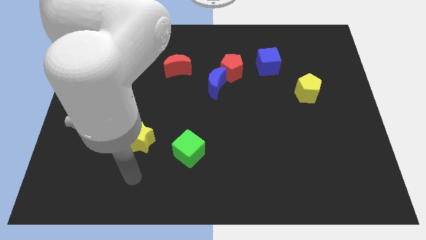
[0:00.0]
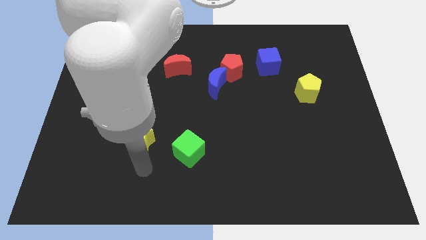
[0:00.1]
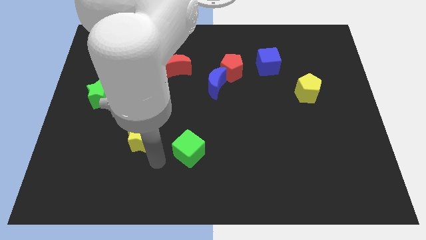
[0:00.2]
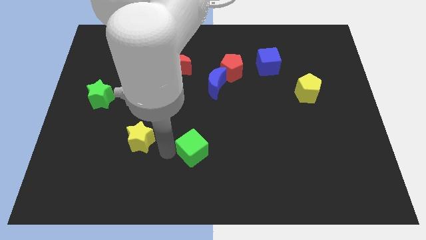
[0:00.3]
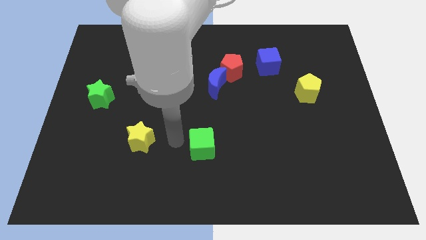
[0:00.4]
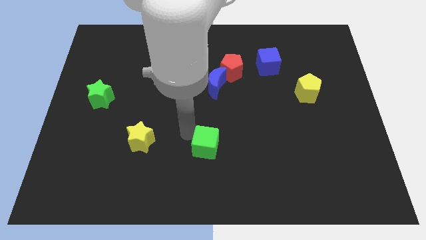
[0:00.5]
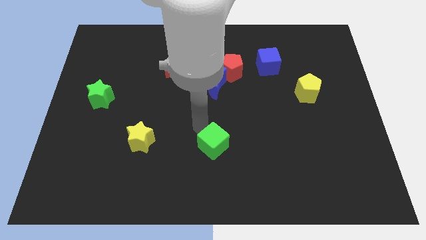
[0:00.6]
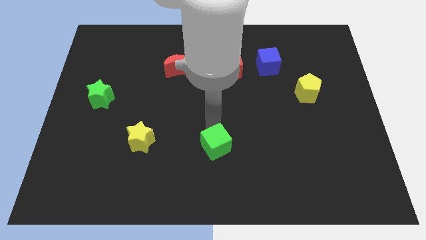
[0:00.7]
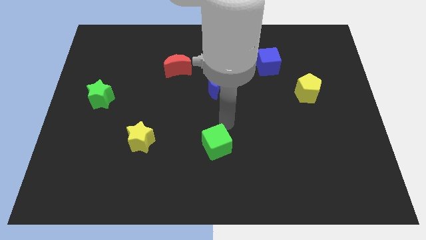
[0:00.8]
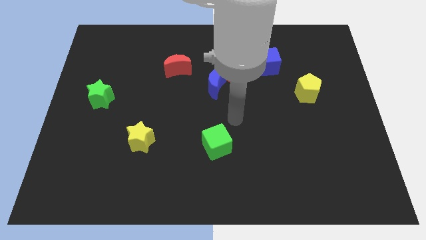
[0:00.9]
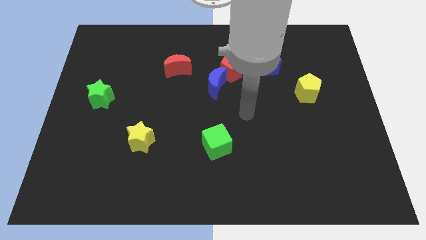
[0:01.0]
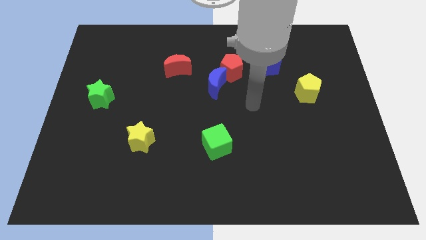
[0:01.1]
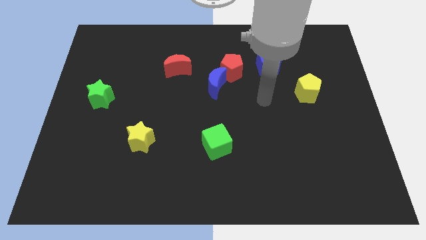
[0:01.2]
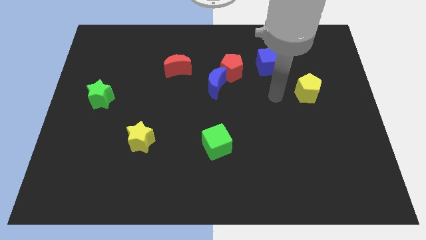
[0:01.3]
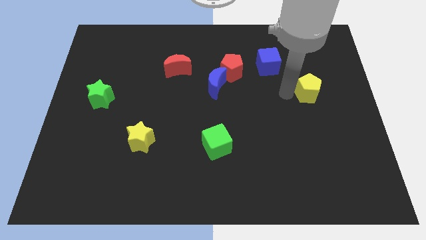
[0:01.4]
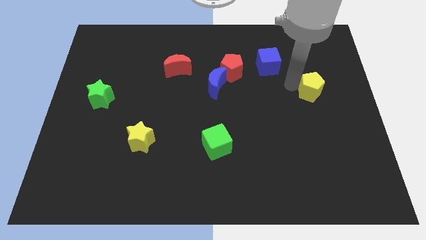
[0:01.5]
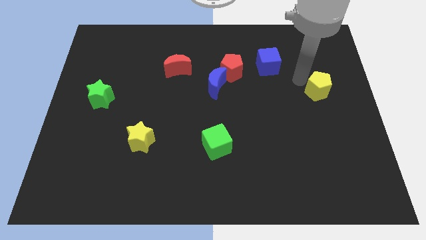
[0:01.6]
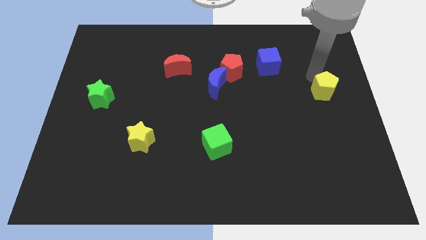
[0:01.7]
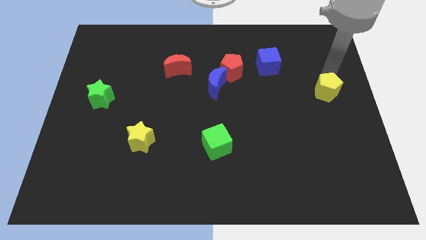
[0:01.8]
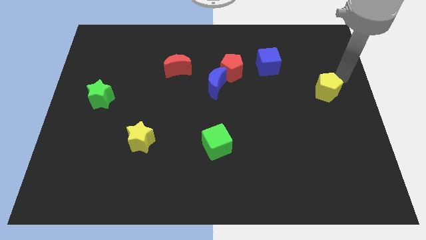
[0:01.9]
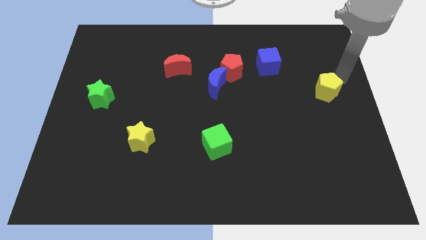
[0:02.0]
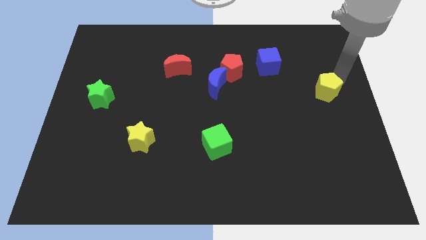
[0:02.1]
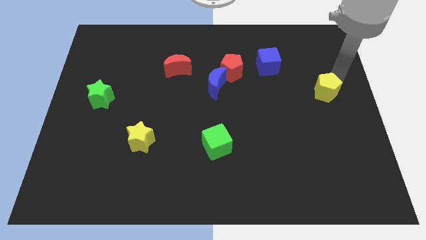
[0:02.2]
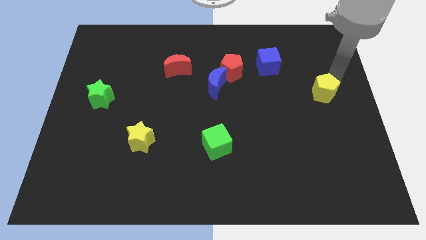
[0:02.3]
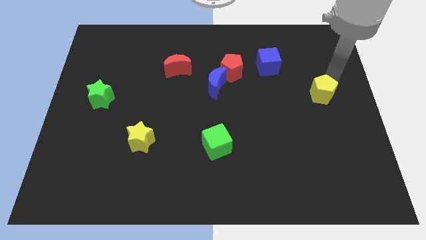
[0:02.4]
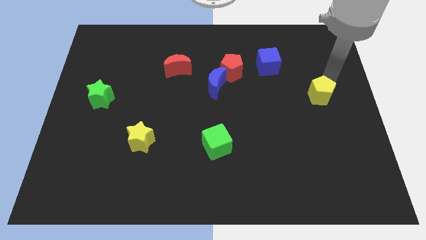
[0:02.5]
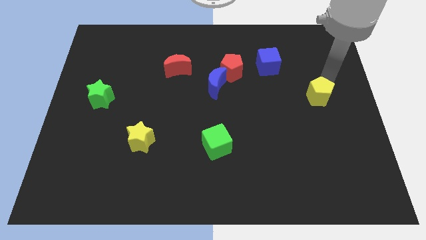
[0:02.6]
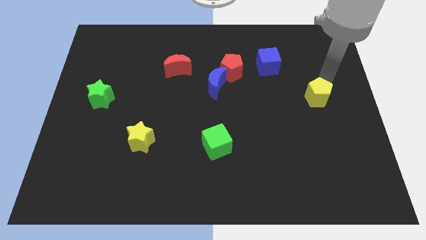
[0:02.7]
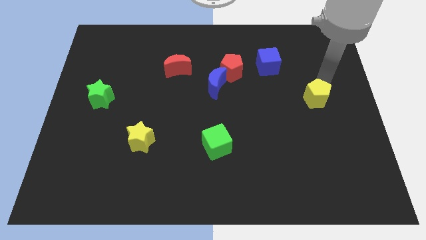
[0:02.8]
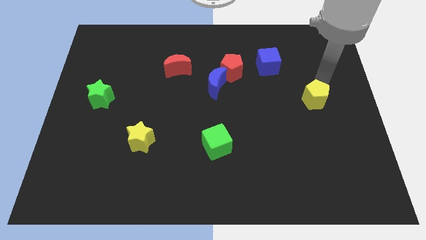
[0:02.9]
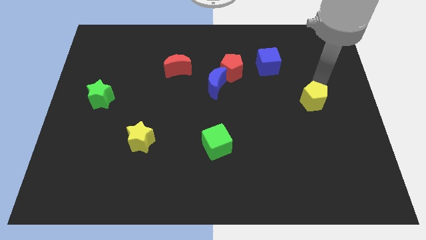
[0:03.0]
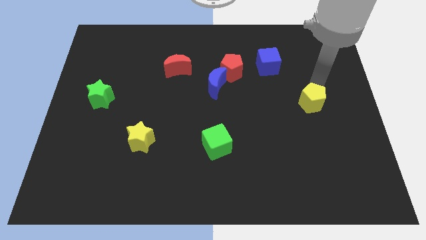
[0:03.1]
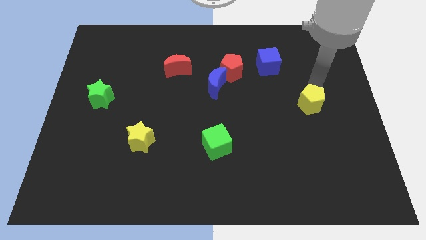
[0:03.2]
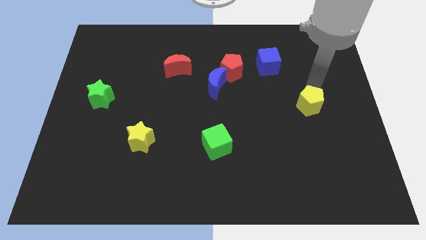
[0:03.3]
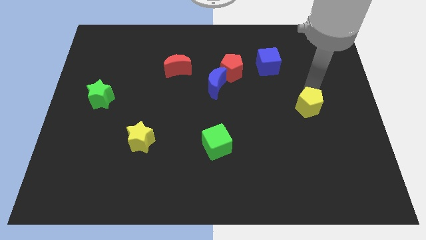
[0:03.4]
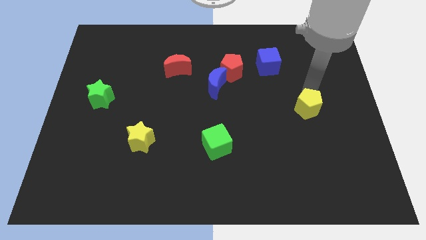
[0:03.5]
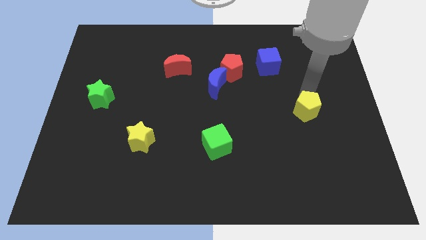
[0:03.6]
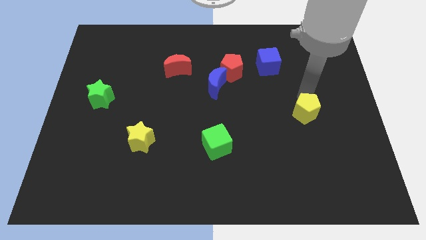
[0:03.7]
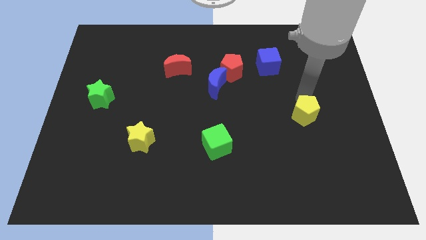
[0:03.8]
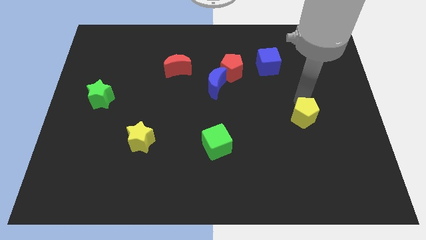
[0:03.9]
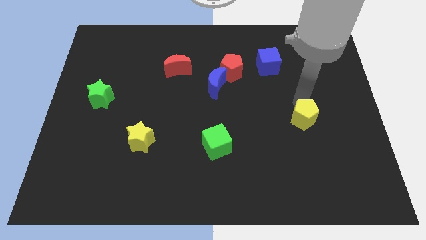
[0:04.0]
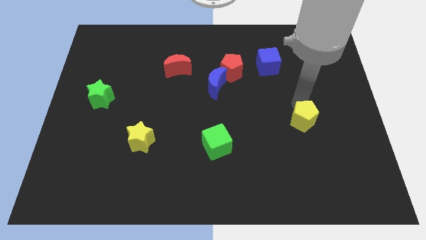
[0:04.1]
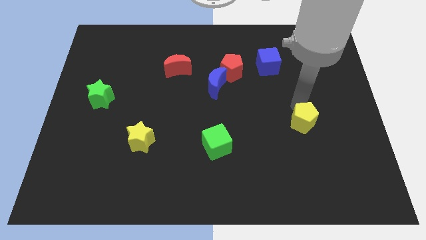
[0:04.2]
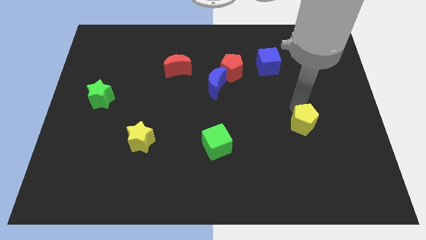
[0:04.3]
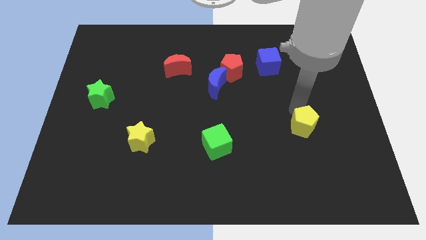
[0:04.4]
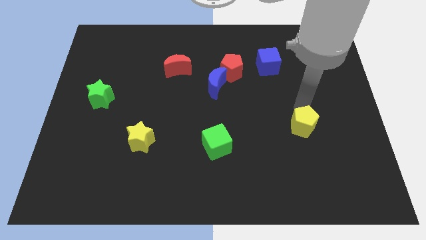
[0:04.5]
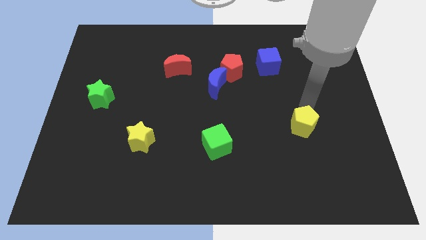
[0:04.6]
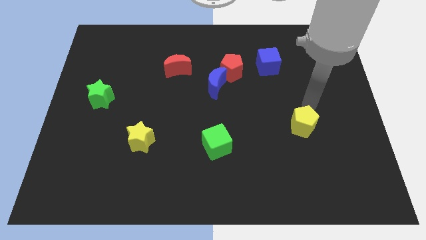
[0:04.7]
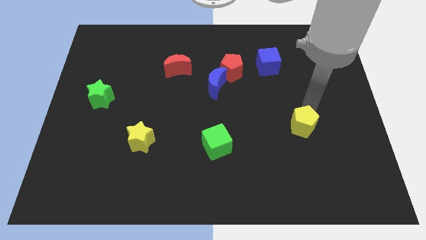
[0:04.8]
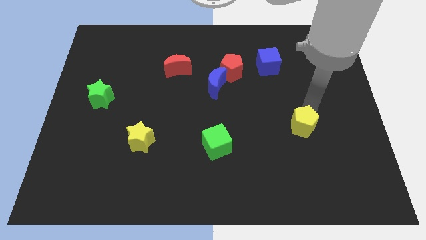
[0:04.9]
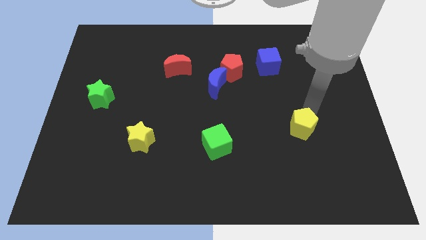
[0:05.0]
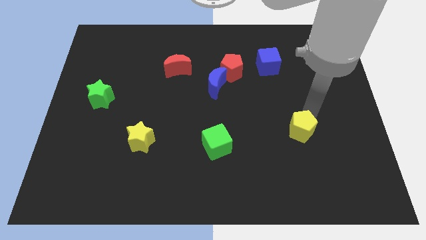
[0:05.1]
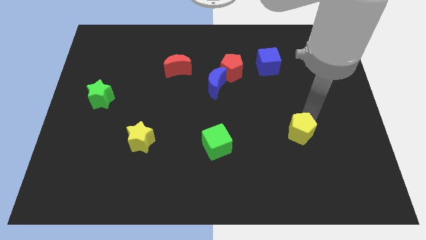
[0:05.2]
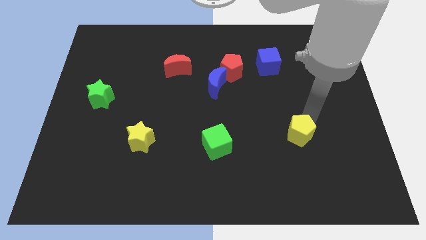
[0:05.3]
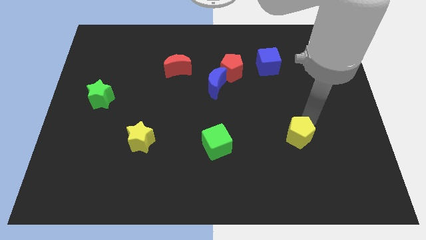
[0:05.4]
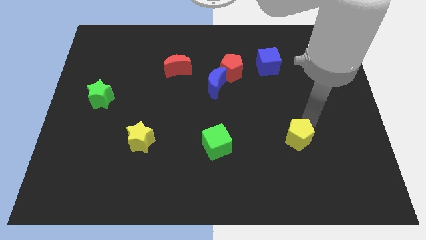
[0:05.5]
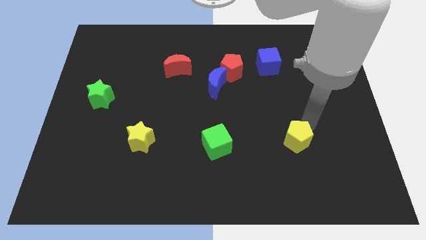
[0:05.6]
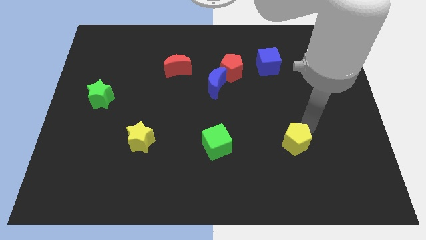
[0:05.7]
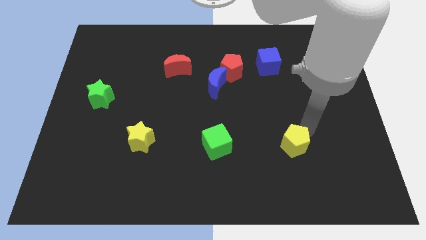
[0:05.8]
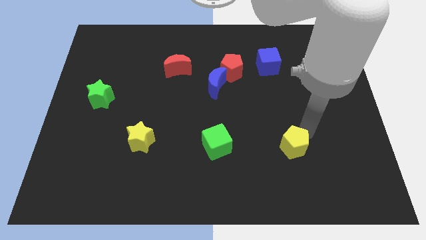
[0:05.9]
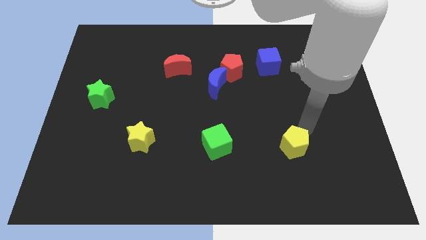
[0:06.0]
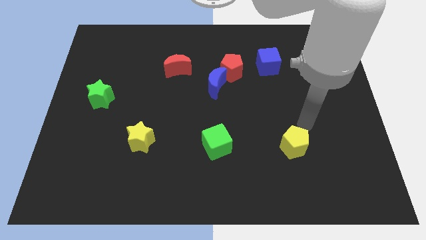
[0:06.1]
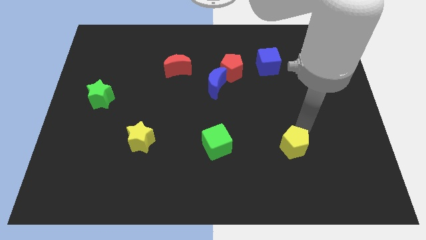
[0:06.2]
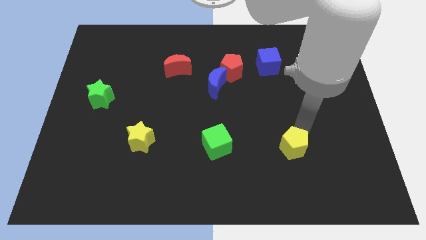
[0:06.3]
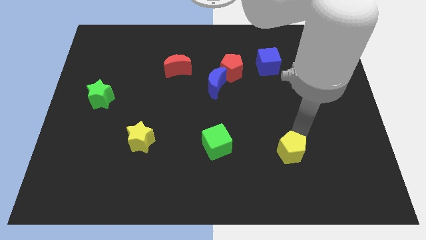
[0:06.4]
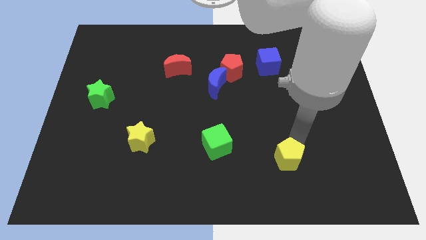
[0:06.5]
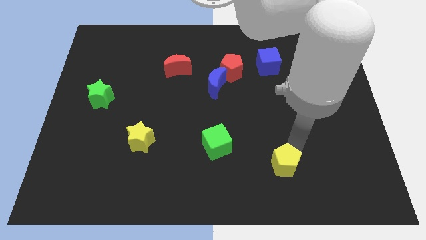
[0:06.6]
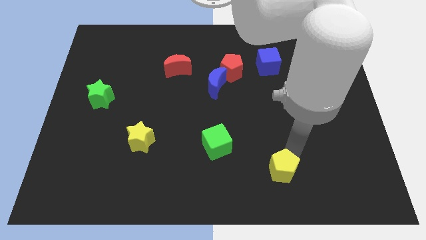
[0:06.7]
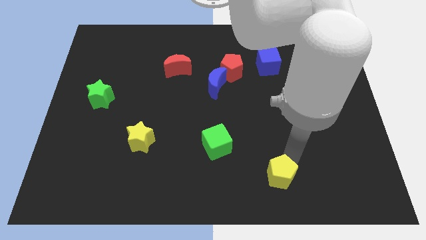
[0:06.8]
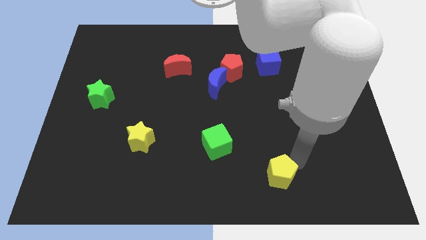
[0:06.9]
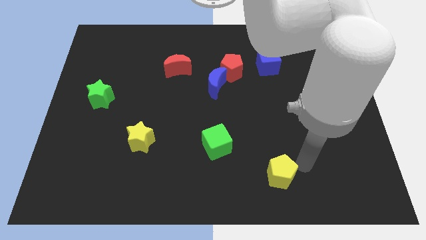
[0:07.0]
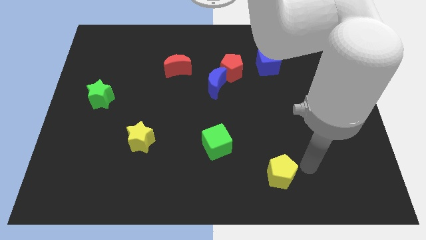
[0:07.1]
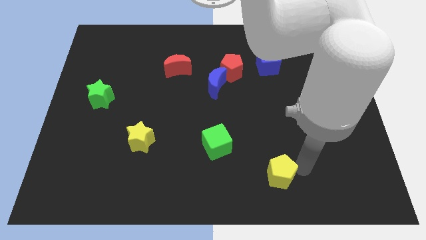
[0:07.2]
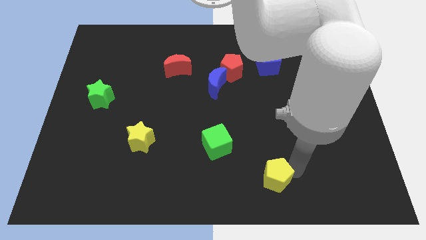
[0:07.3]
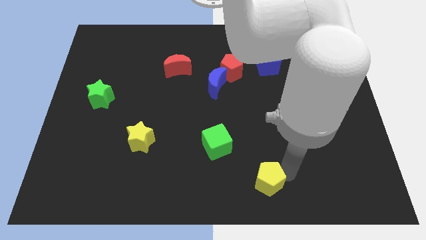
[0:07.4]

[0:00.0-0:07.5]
put the yellow pentagon to the bottom
